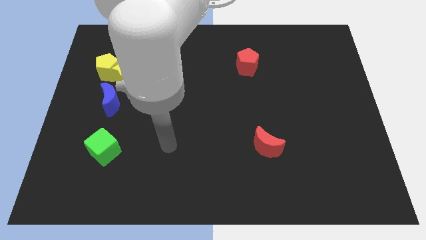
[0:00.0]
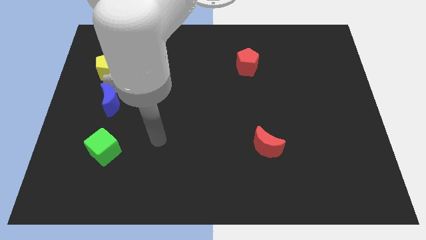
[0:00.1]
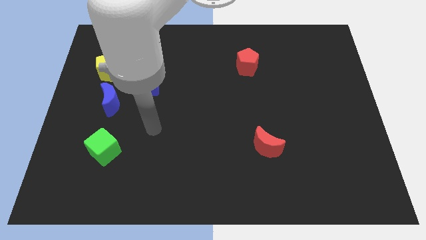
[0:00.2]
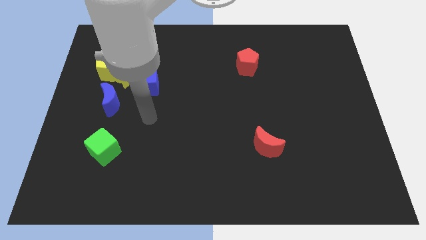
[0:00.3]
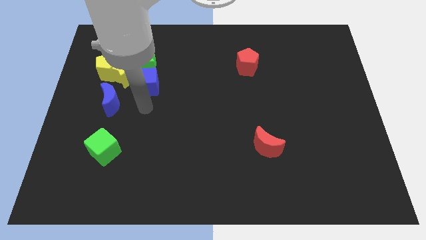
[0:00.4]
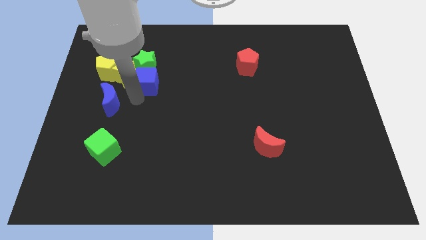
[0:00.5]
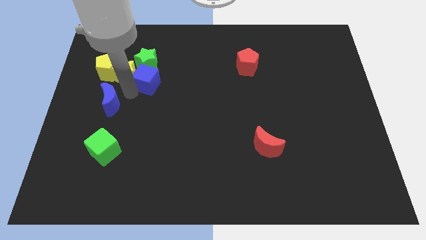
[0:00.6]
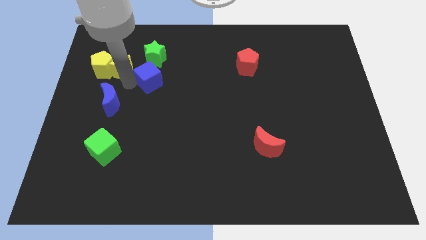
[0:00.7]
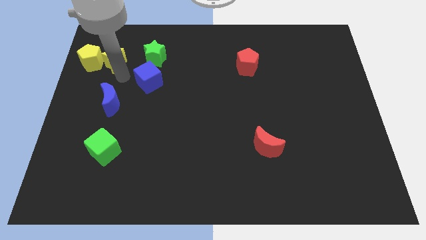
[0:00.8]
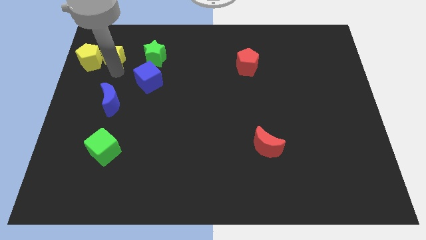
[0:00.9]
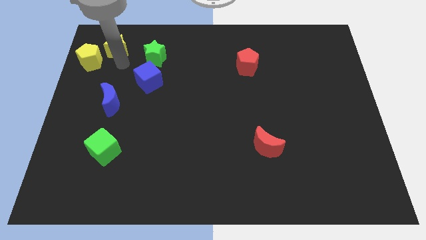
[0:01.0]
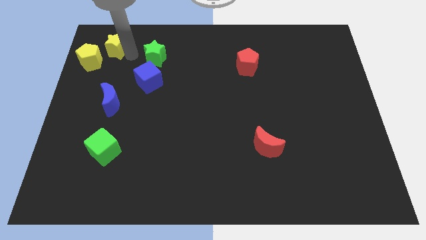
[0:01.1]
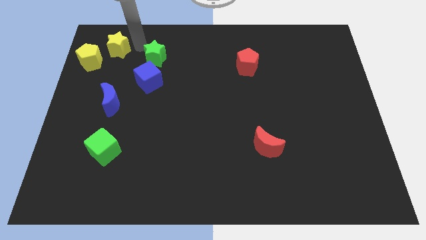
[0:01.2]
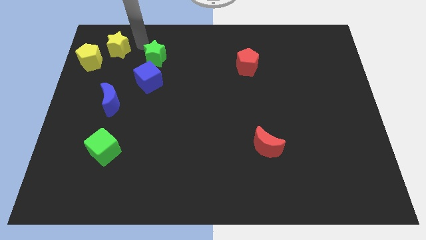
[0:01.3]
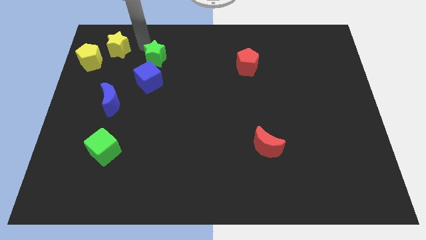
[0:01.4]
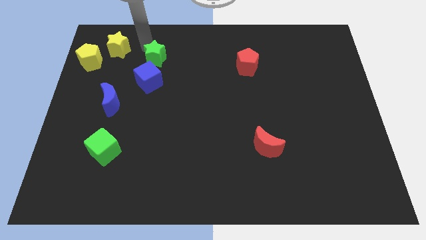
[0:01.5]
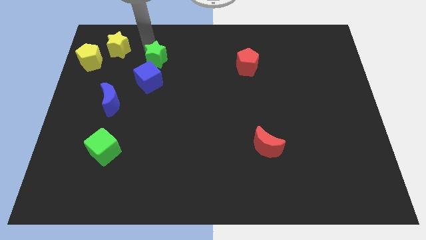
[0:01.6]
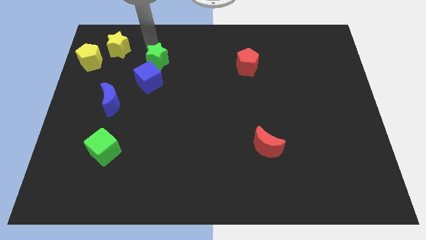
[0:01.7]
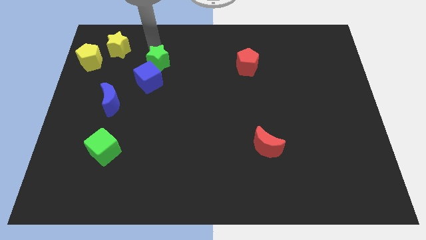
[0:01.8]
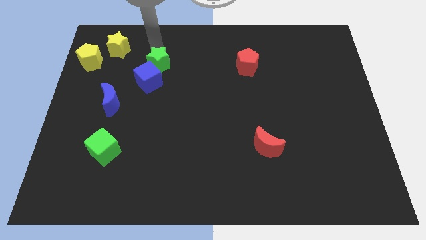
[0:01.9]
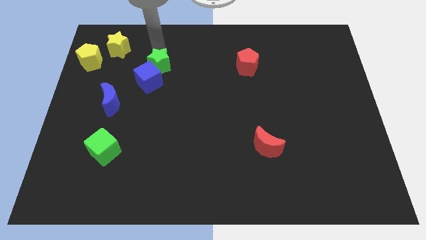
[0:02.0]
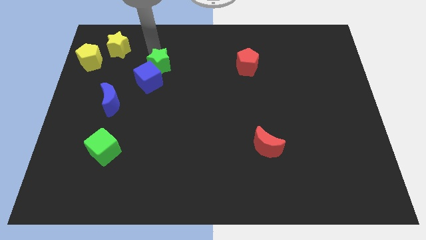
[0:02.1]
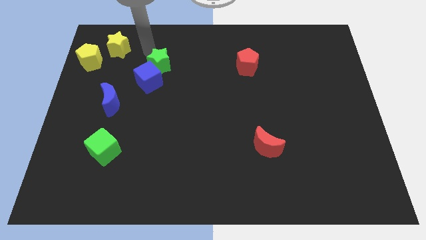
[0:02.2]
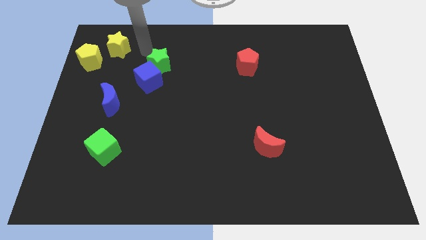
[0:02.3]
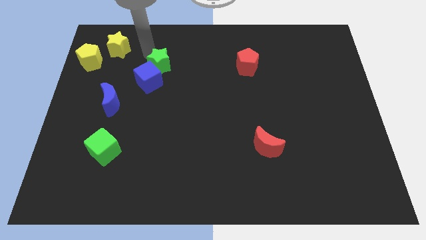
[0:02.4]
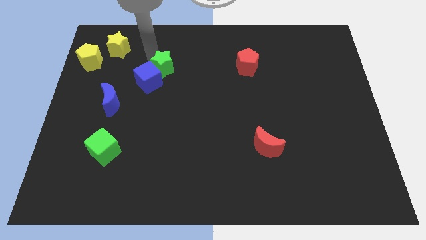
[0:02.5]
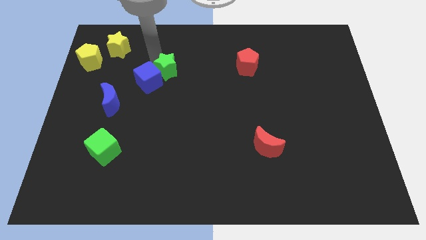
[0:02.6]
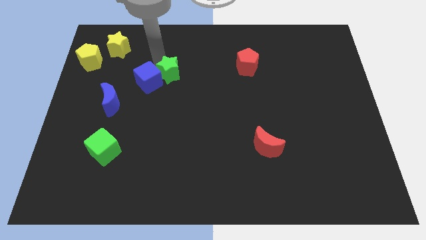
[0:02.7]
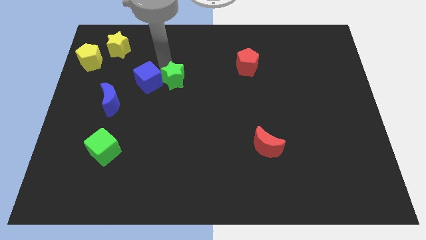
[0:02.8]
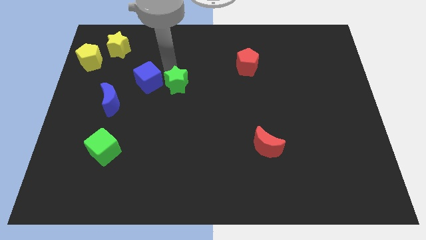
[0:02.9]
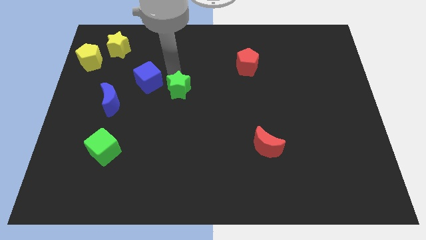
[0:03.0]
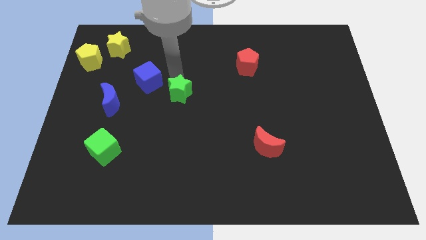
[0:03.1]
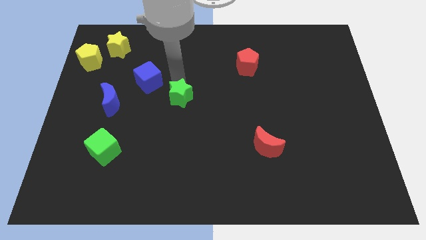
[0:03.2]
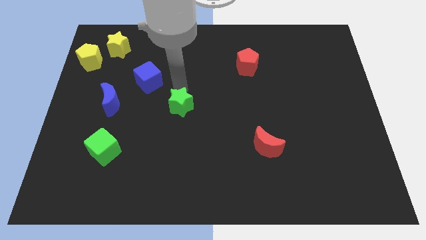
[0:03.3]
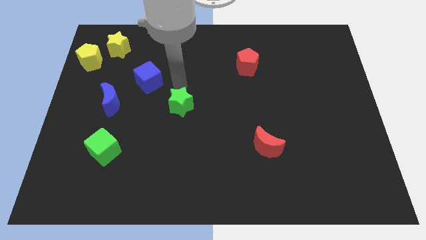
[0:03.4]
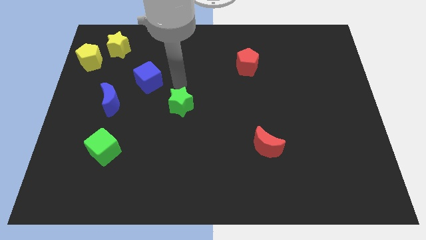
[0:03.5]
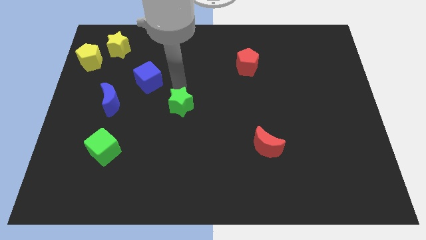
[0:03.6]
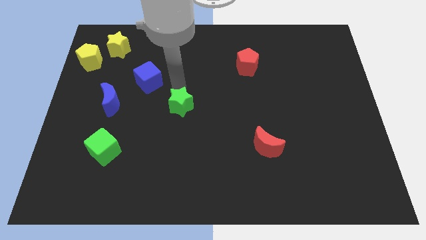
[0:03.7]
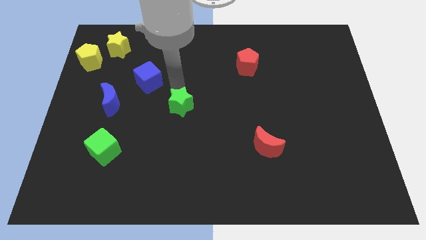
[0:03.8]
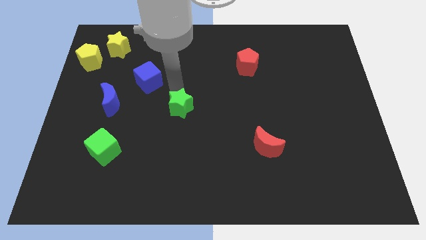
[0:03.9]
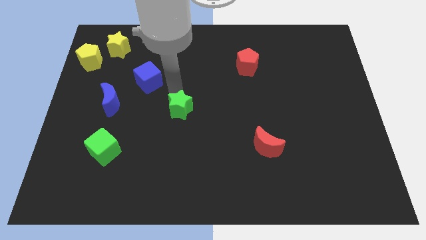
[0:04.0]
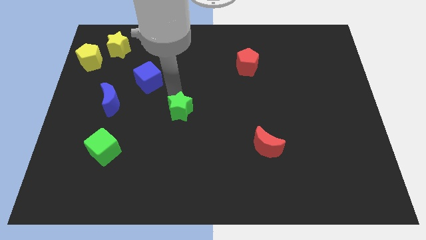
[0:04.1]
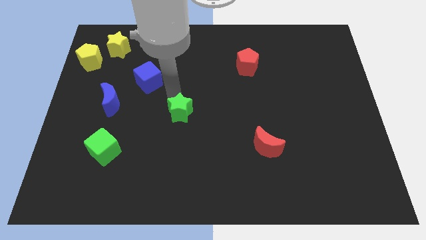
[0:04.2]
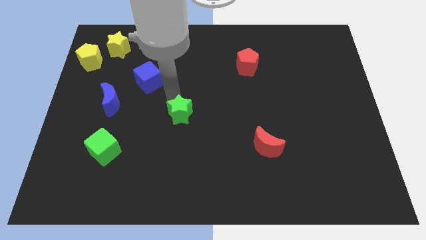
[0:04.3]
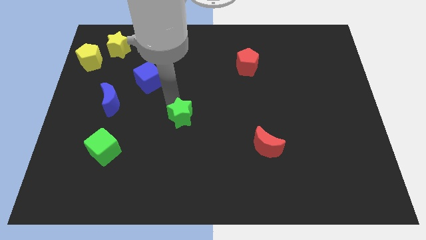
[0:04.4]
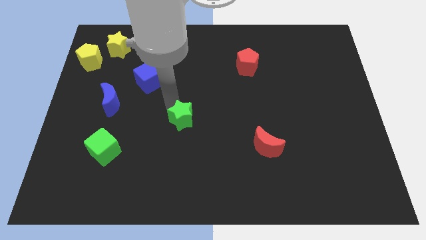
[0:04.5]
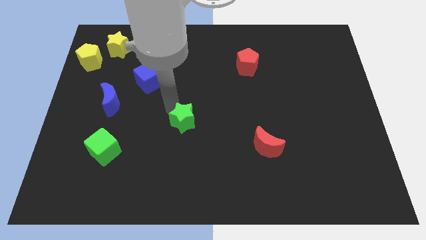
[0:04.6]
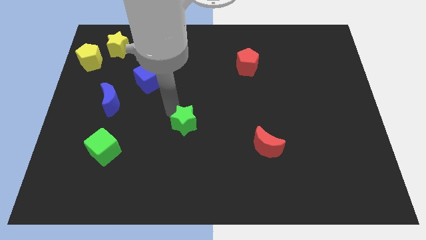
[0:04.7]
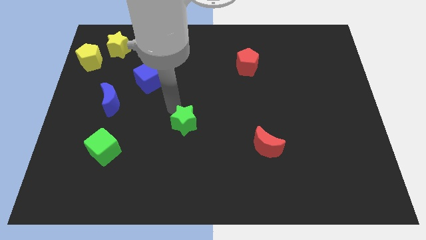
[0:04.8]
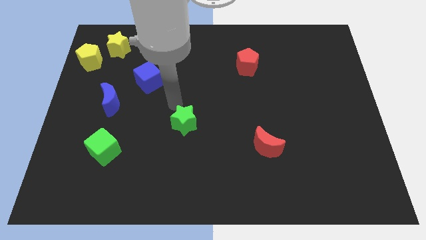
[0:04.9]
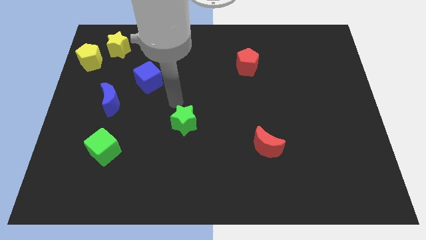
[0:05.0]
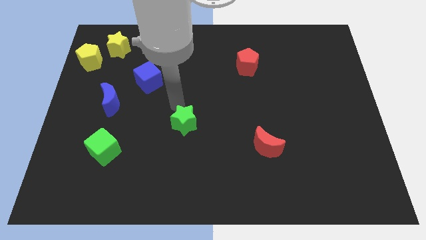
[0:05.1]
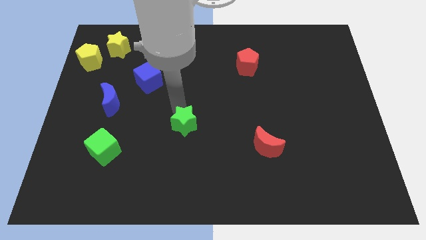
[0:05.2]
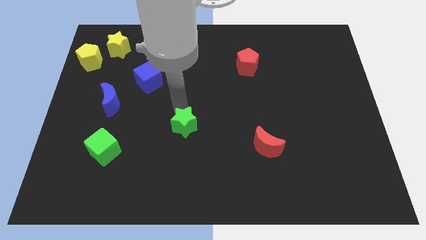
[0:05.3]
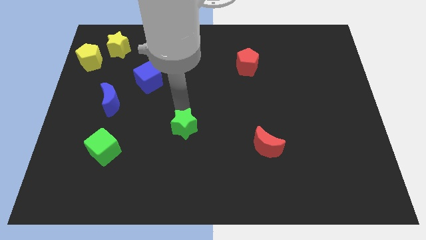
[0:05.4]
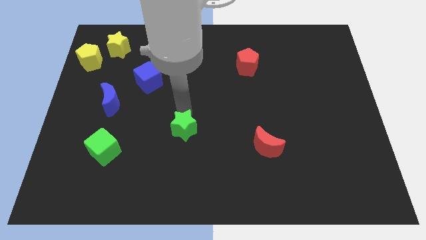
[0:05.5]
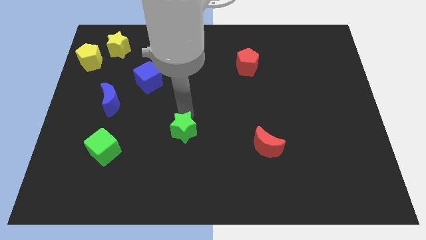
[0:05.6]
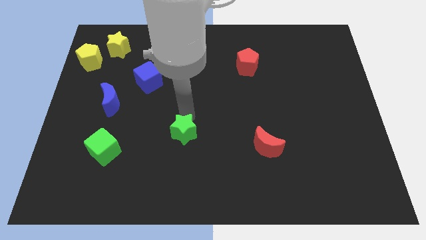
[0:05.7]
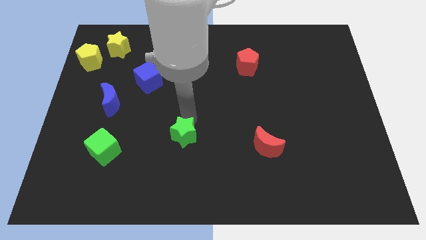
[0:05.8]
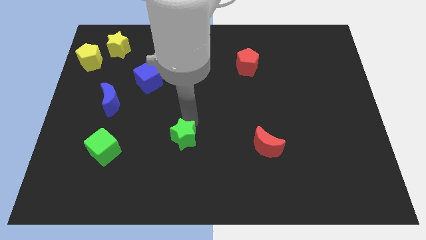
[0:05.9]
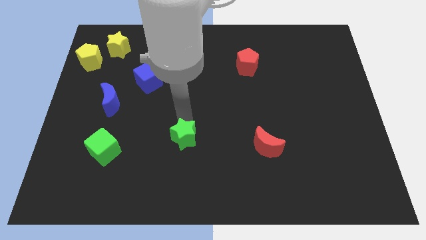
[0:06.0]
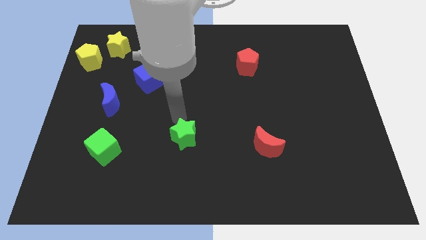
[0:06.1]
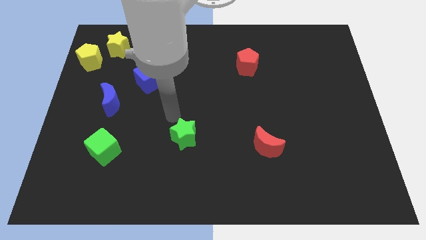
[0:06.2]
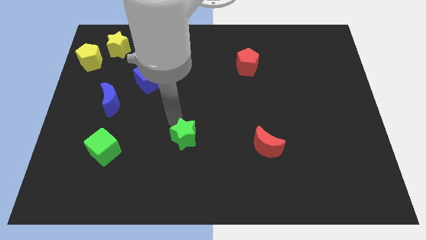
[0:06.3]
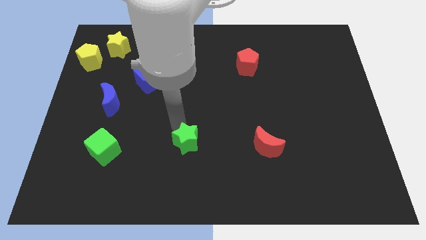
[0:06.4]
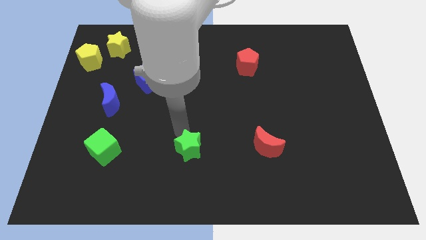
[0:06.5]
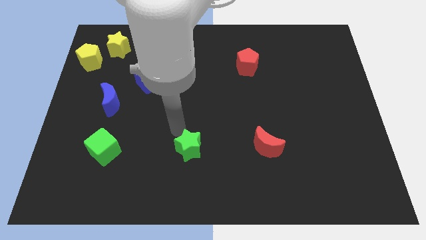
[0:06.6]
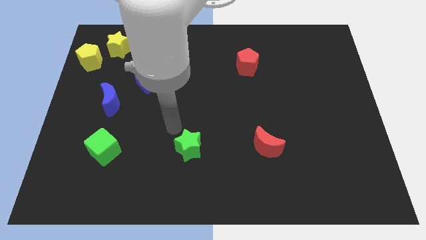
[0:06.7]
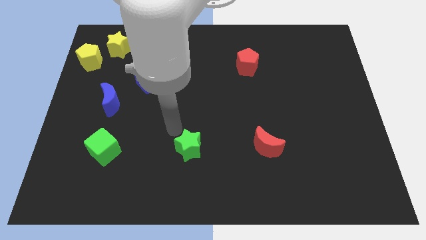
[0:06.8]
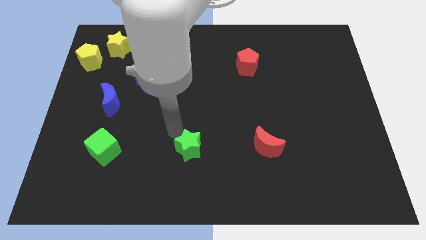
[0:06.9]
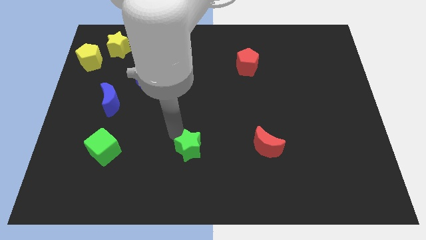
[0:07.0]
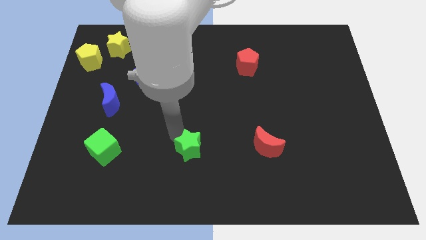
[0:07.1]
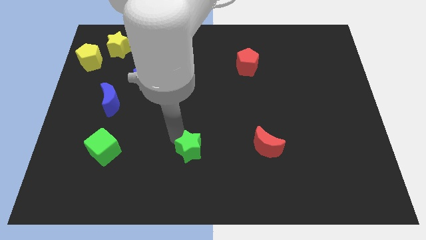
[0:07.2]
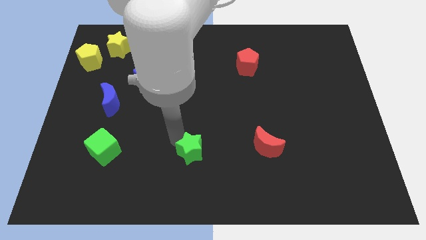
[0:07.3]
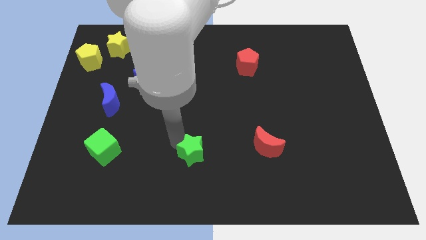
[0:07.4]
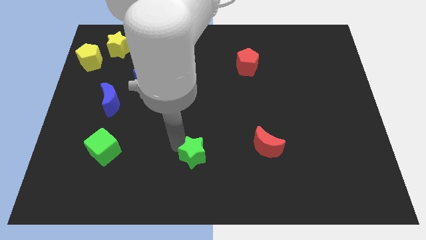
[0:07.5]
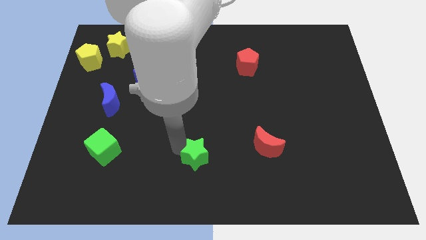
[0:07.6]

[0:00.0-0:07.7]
move the green star to the bottom side
